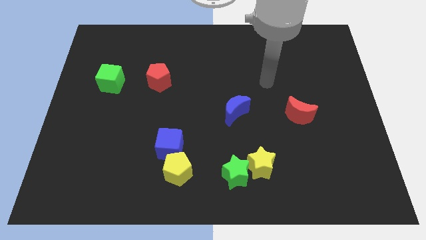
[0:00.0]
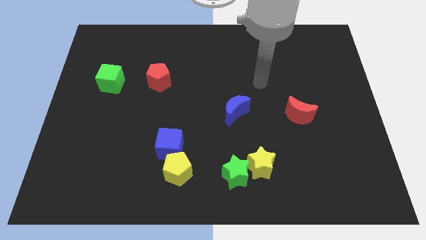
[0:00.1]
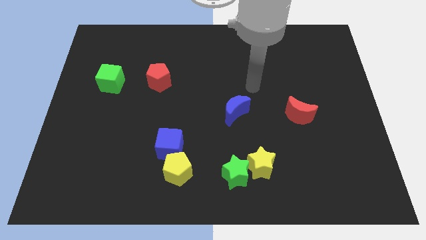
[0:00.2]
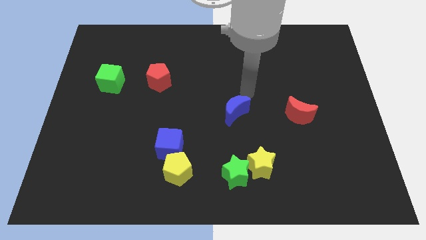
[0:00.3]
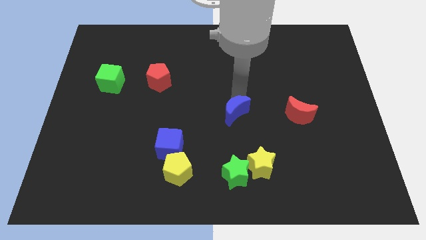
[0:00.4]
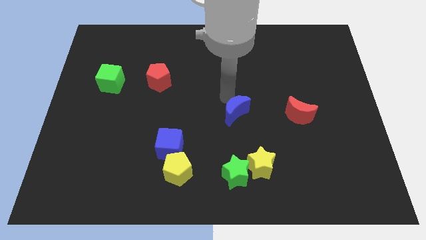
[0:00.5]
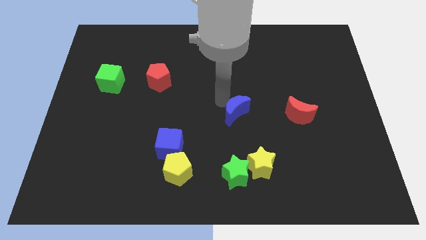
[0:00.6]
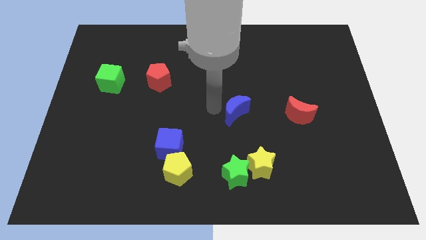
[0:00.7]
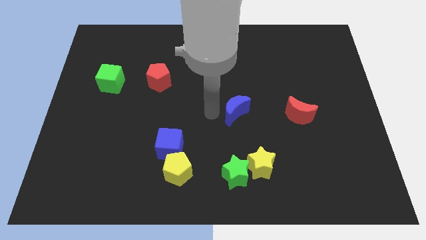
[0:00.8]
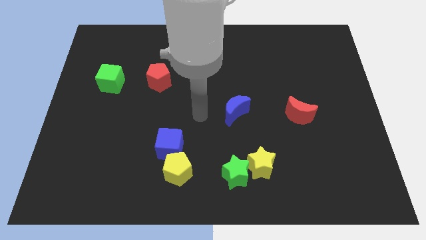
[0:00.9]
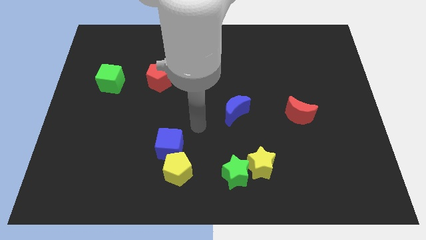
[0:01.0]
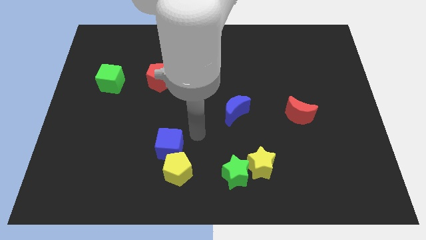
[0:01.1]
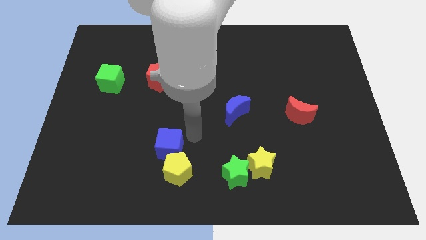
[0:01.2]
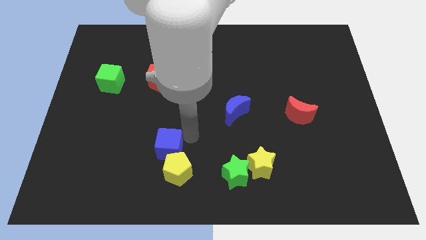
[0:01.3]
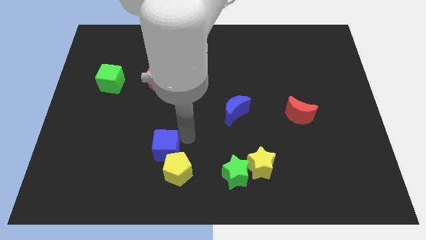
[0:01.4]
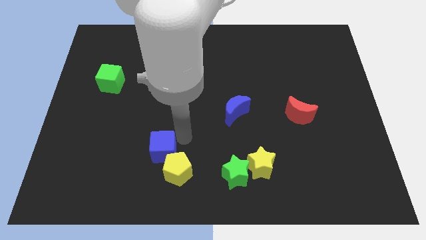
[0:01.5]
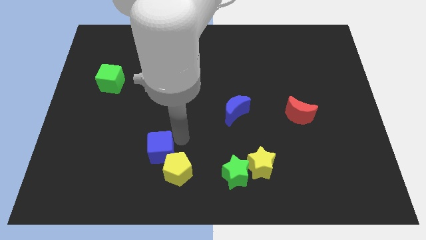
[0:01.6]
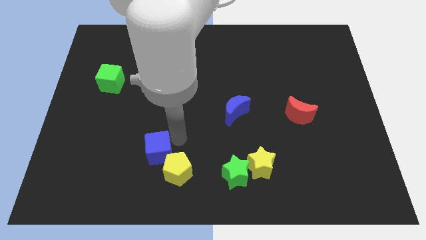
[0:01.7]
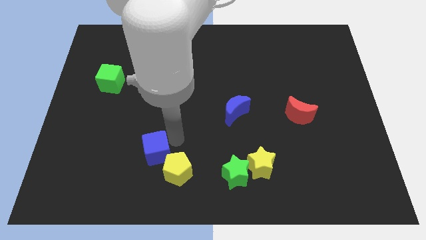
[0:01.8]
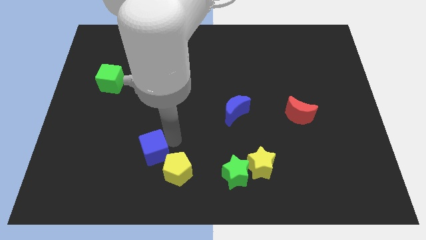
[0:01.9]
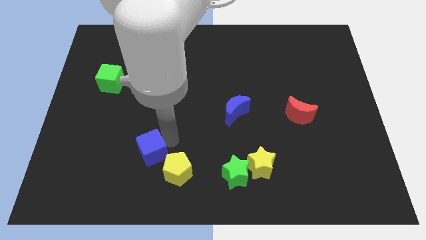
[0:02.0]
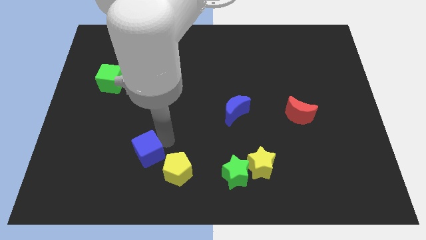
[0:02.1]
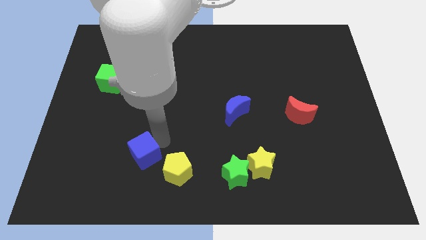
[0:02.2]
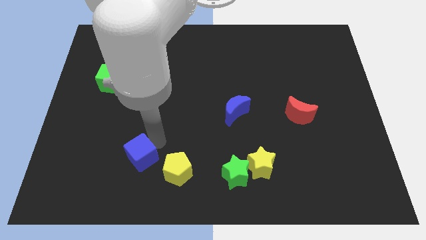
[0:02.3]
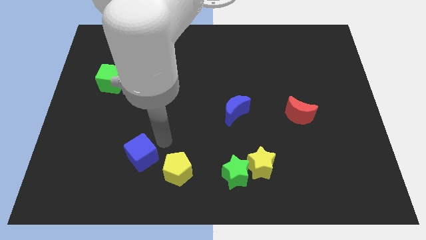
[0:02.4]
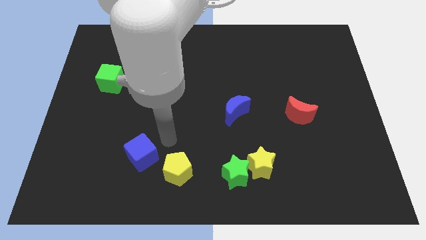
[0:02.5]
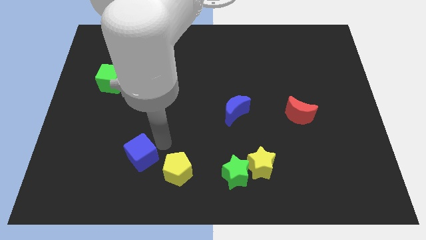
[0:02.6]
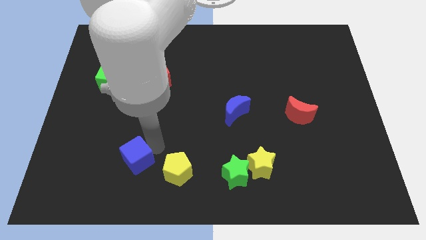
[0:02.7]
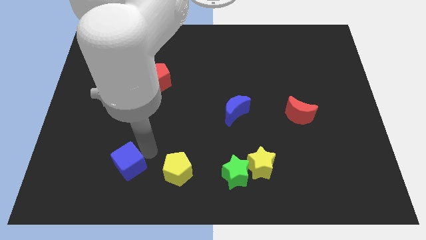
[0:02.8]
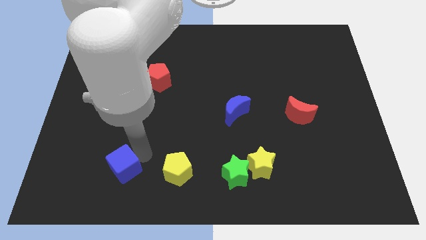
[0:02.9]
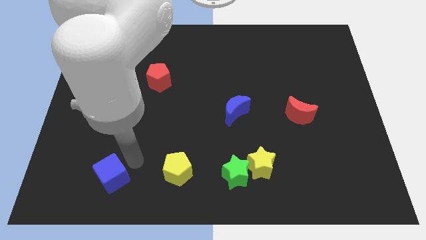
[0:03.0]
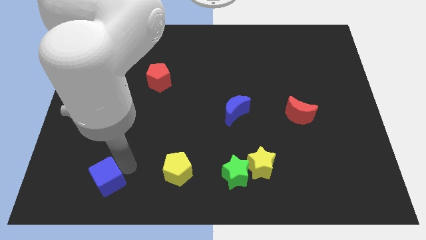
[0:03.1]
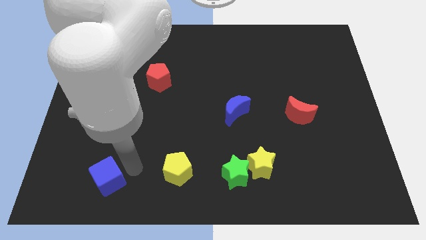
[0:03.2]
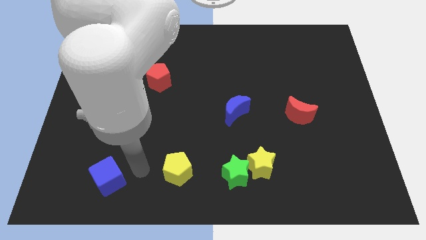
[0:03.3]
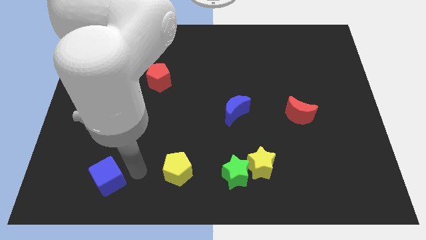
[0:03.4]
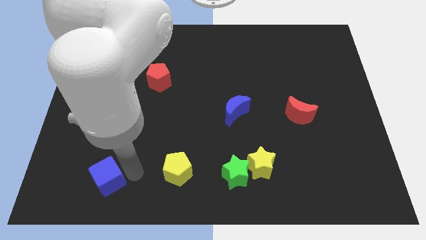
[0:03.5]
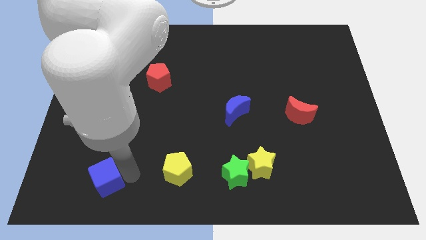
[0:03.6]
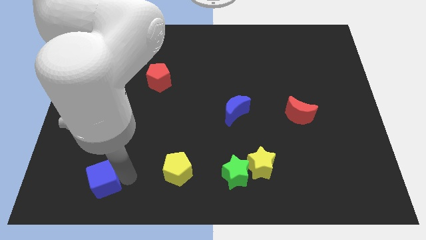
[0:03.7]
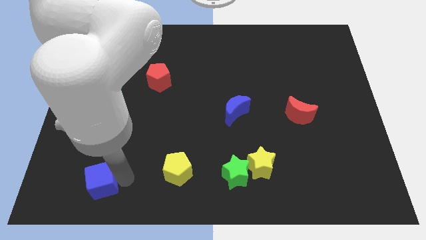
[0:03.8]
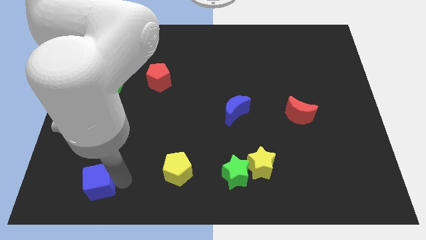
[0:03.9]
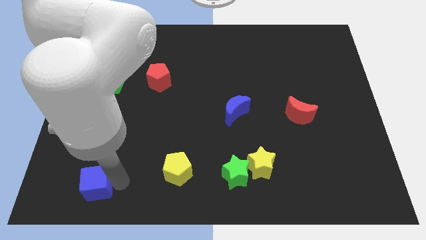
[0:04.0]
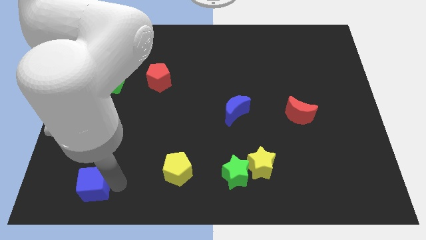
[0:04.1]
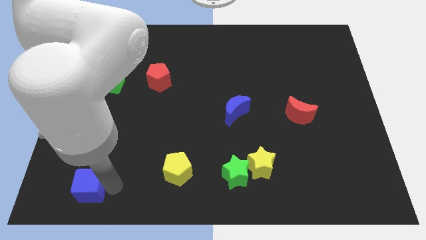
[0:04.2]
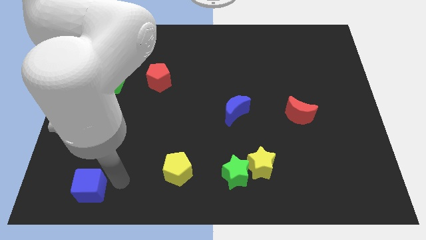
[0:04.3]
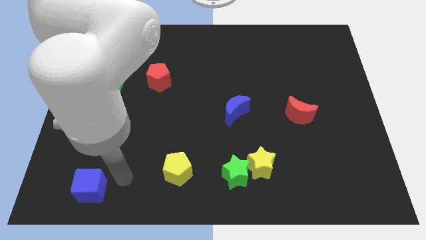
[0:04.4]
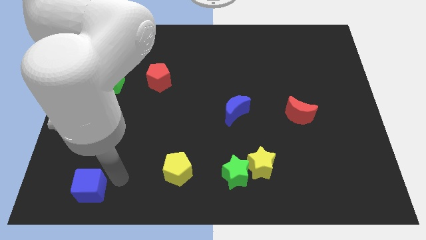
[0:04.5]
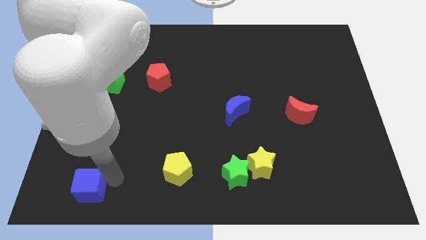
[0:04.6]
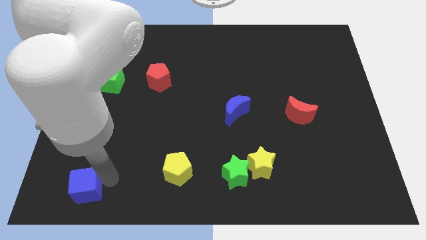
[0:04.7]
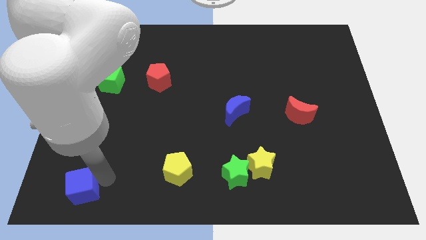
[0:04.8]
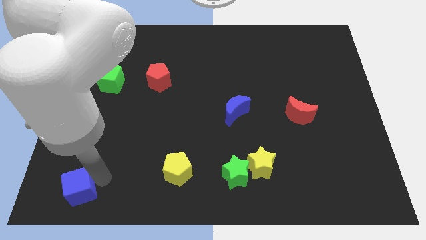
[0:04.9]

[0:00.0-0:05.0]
push the blue cube to the bottom left of the board

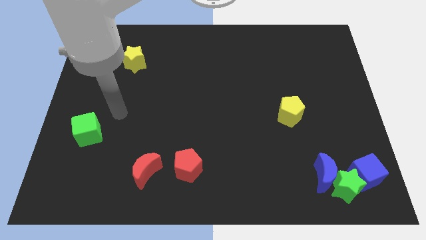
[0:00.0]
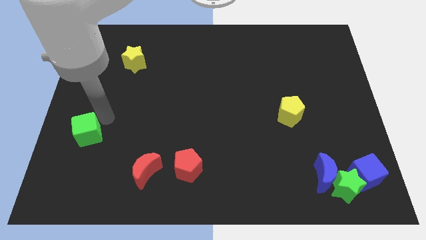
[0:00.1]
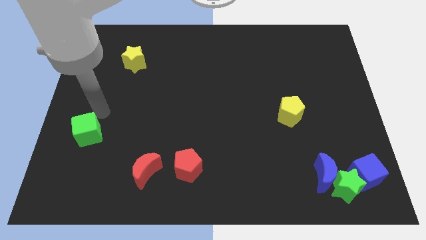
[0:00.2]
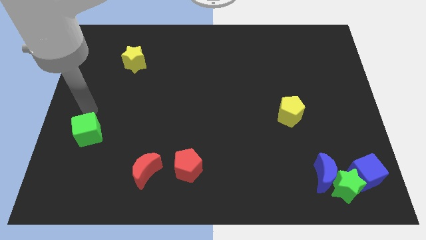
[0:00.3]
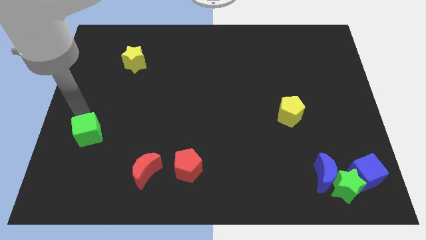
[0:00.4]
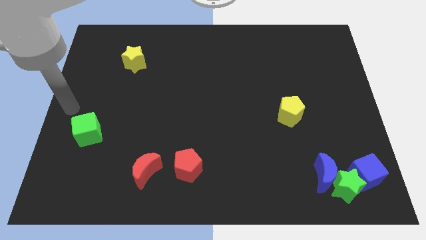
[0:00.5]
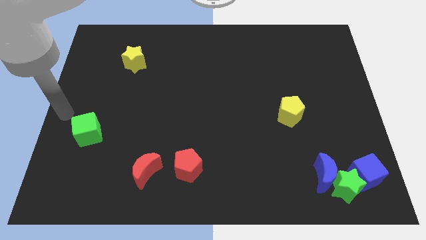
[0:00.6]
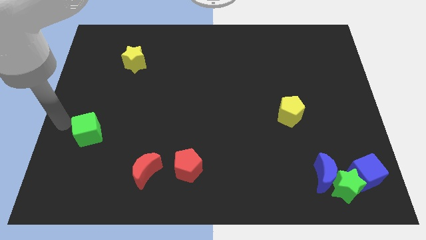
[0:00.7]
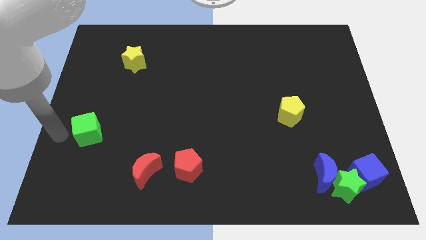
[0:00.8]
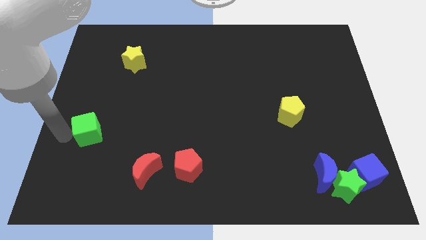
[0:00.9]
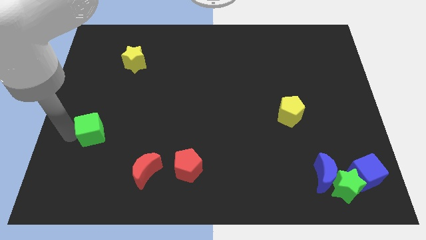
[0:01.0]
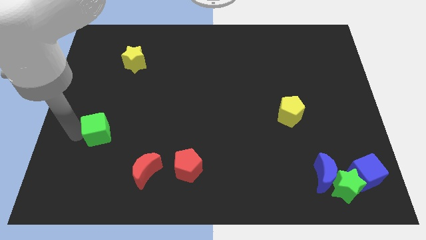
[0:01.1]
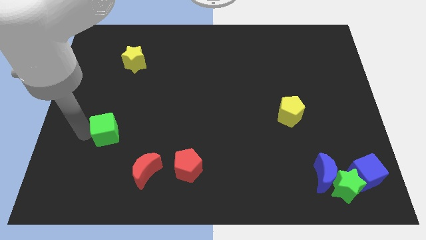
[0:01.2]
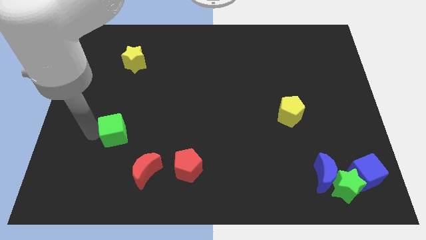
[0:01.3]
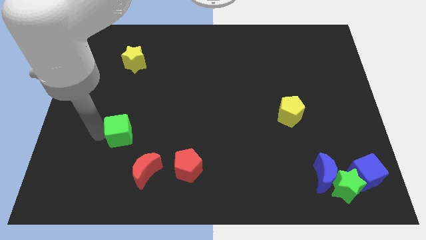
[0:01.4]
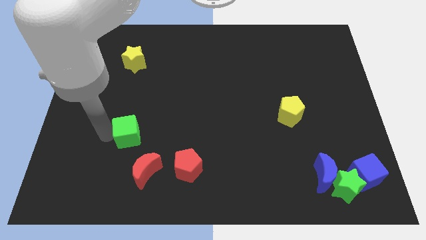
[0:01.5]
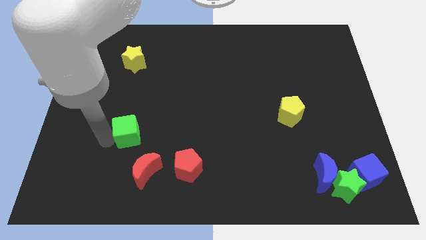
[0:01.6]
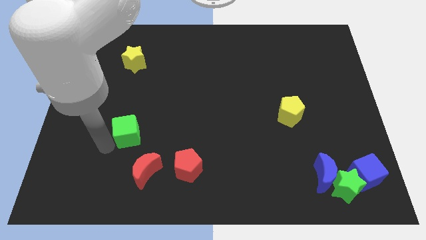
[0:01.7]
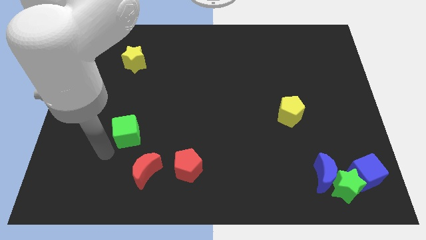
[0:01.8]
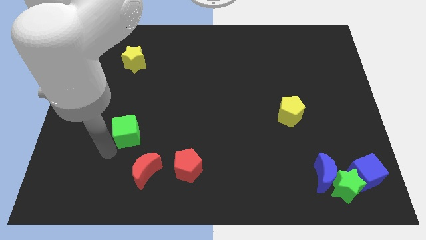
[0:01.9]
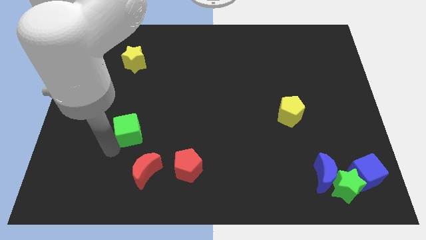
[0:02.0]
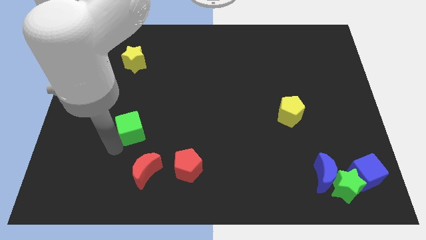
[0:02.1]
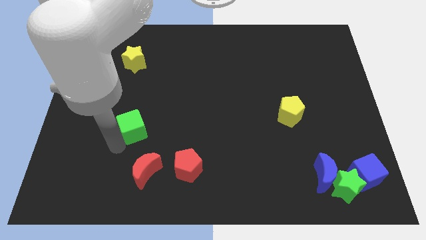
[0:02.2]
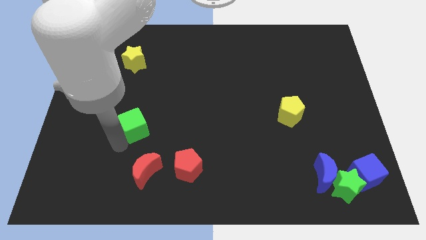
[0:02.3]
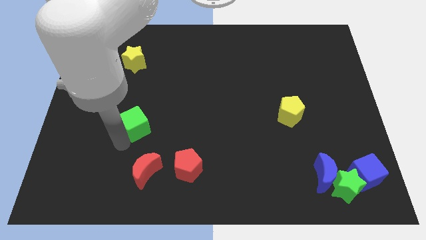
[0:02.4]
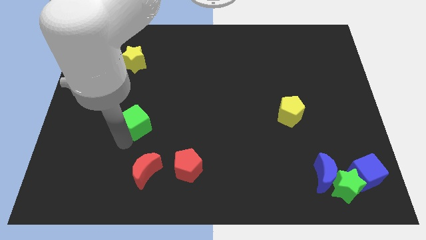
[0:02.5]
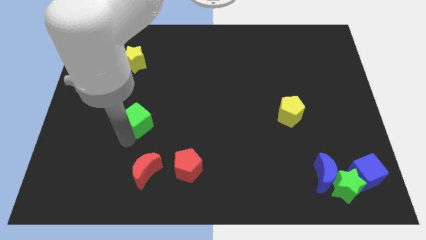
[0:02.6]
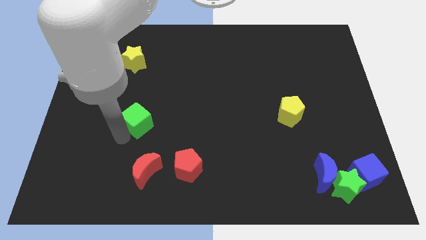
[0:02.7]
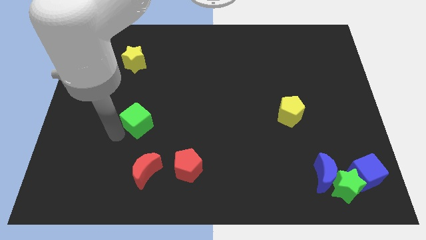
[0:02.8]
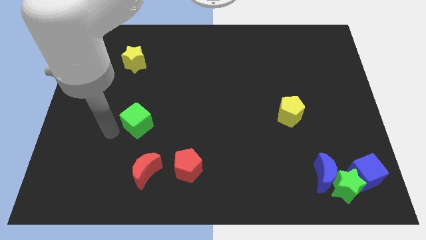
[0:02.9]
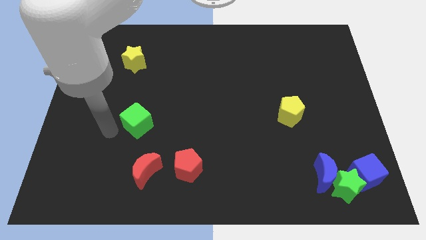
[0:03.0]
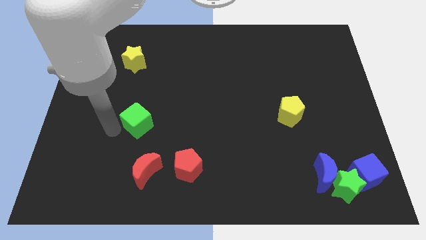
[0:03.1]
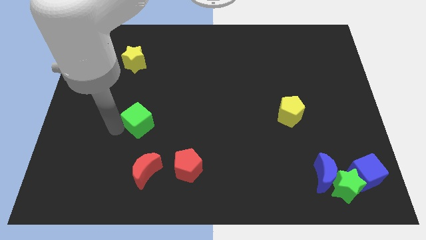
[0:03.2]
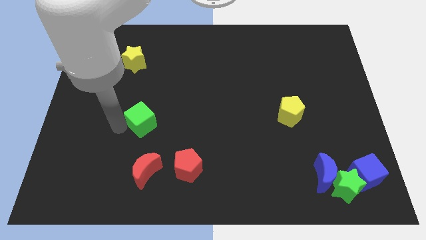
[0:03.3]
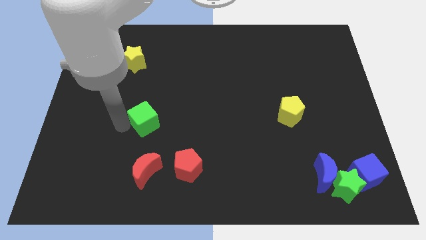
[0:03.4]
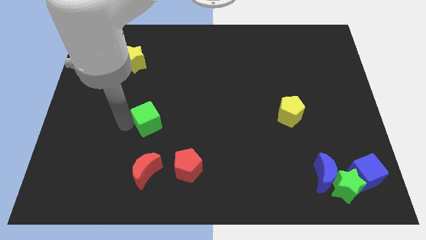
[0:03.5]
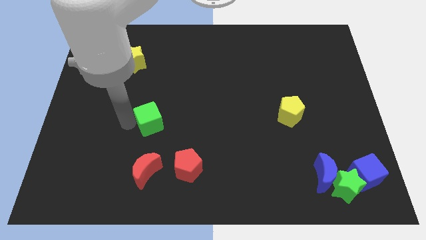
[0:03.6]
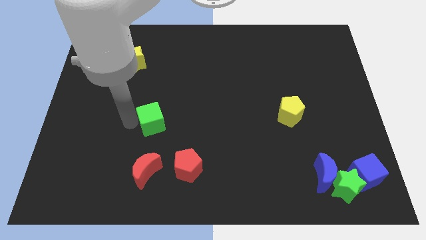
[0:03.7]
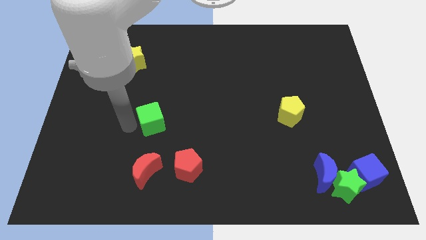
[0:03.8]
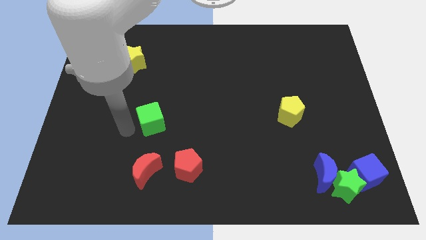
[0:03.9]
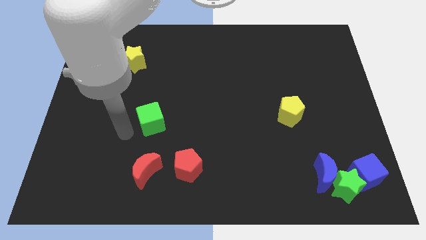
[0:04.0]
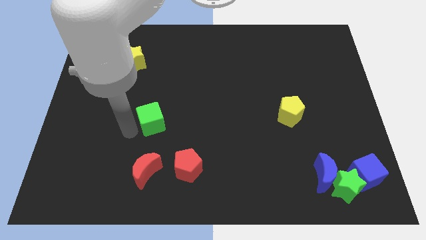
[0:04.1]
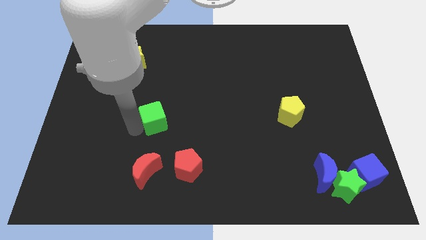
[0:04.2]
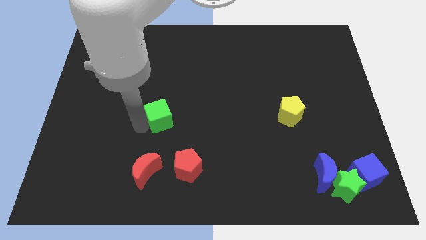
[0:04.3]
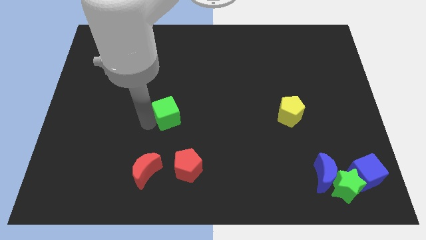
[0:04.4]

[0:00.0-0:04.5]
move the green cube to the center
